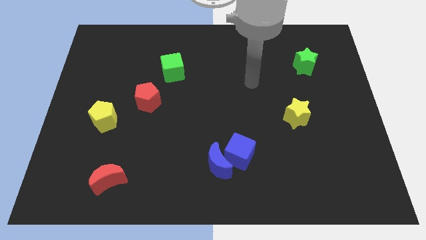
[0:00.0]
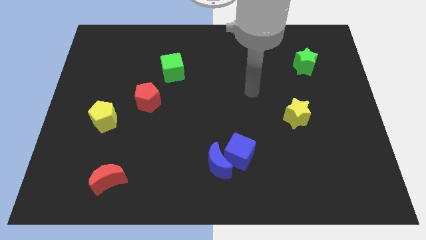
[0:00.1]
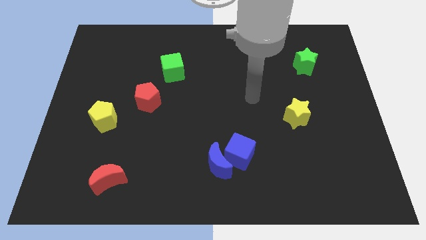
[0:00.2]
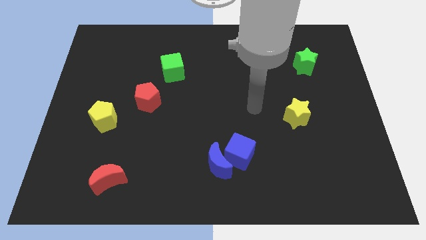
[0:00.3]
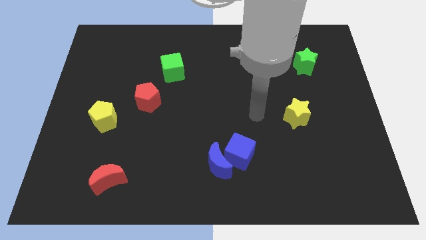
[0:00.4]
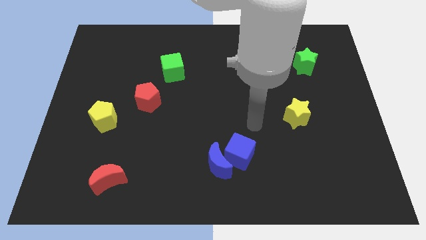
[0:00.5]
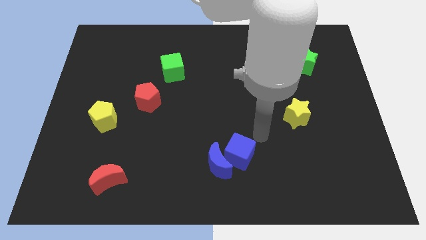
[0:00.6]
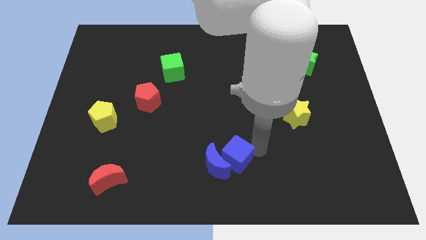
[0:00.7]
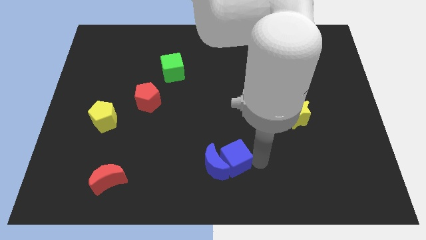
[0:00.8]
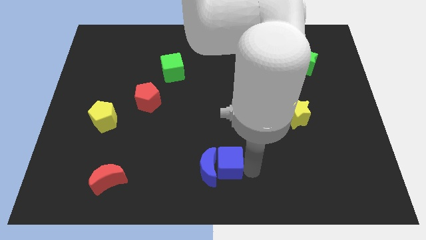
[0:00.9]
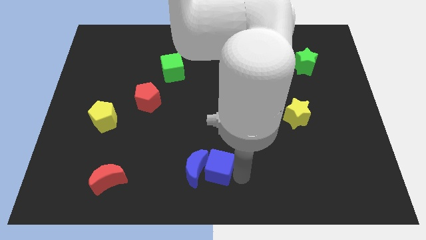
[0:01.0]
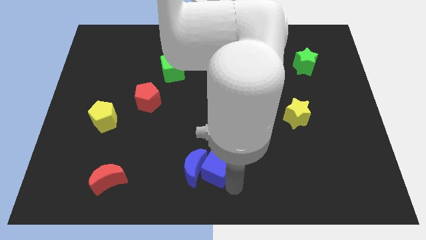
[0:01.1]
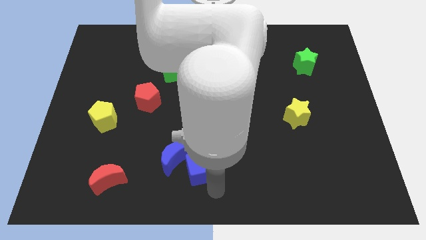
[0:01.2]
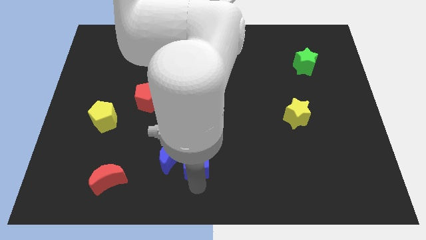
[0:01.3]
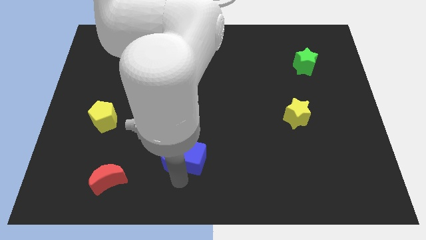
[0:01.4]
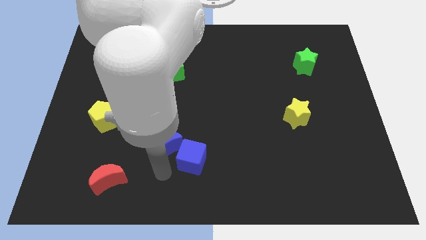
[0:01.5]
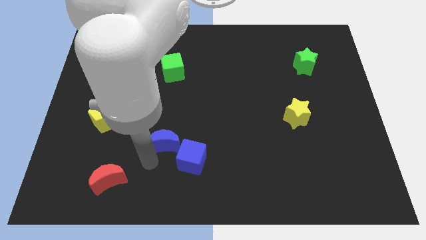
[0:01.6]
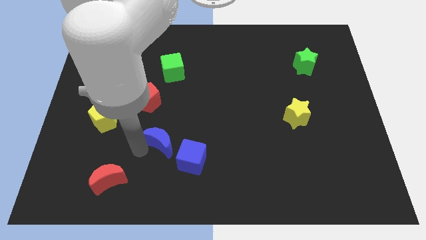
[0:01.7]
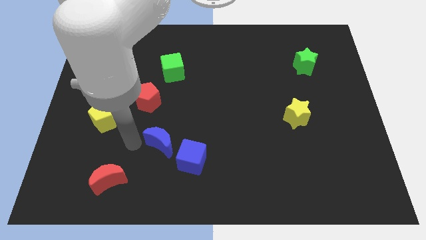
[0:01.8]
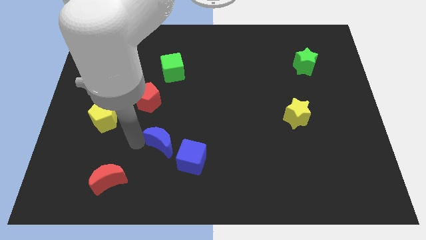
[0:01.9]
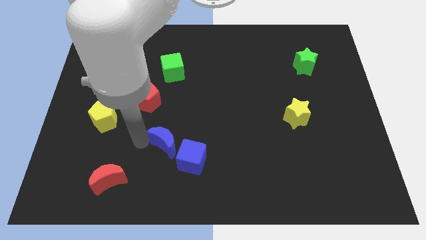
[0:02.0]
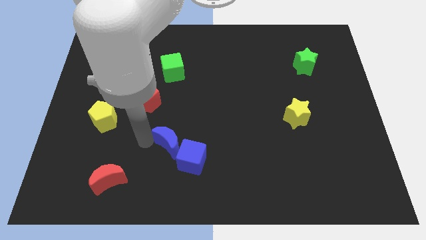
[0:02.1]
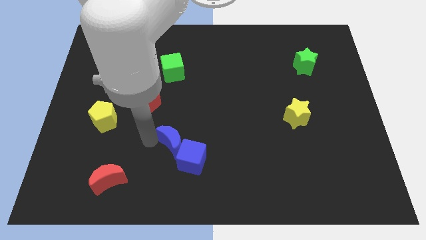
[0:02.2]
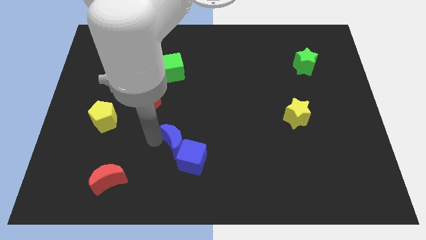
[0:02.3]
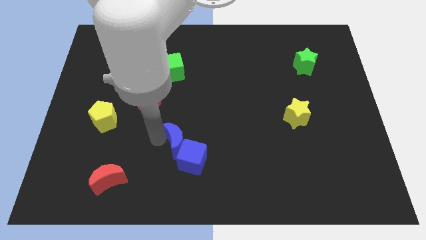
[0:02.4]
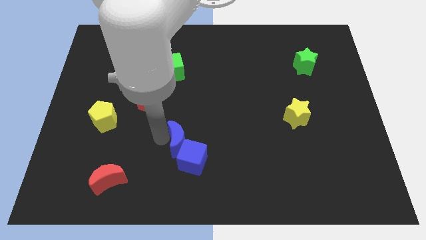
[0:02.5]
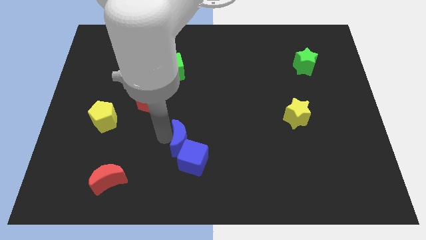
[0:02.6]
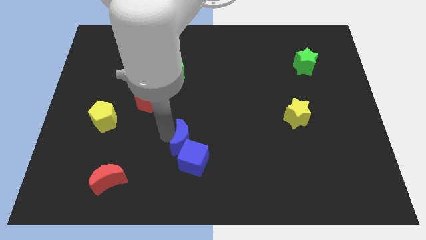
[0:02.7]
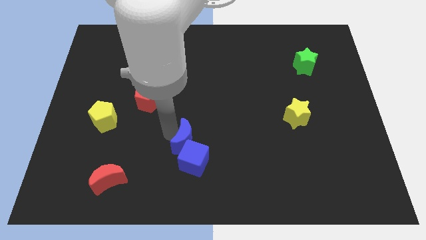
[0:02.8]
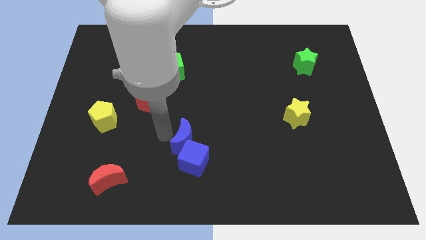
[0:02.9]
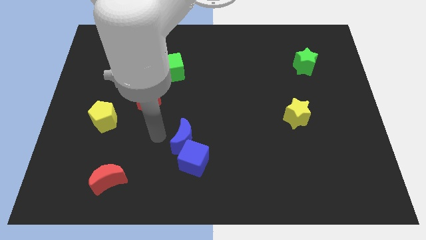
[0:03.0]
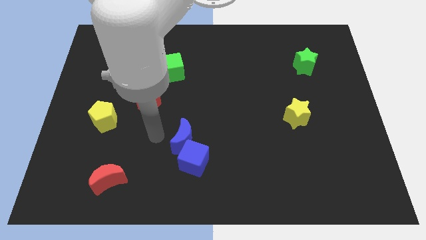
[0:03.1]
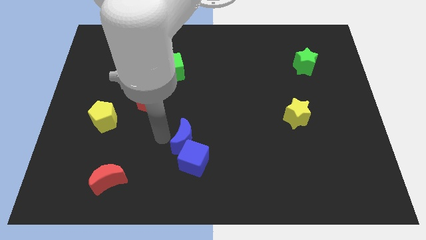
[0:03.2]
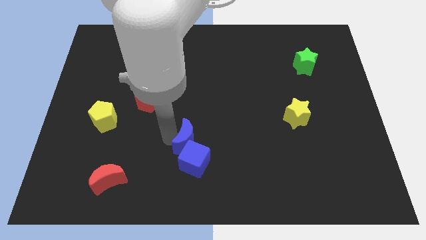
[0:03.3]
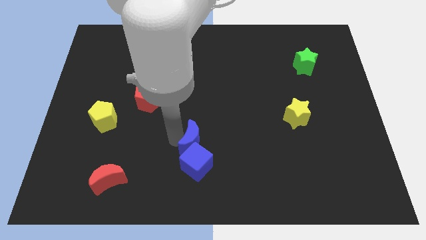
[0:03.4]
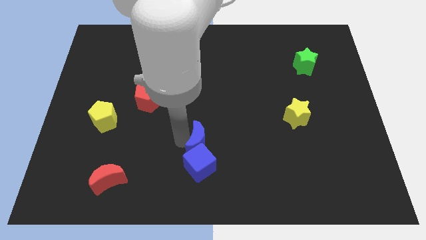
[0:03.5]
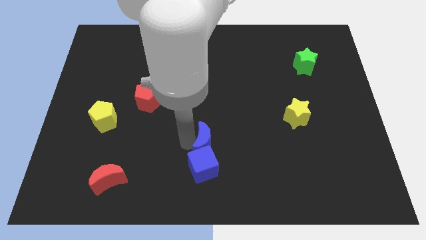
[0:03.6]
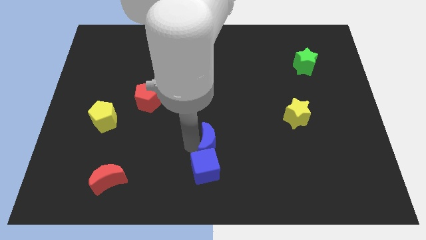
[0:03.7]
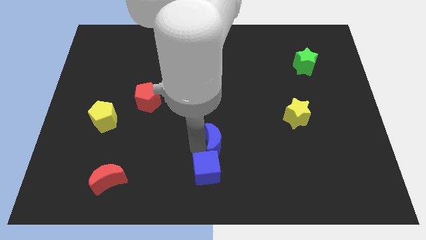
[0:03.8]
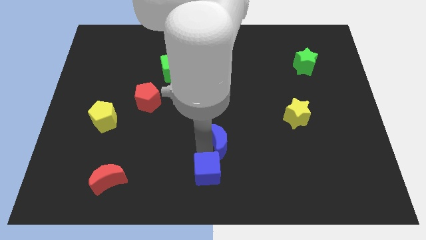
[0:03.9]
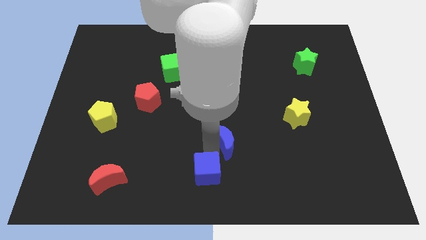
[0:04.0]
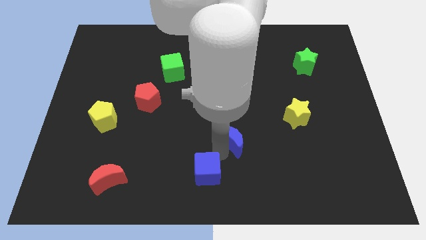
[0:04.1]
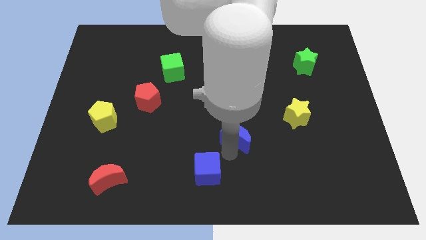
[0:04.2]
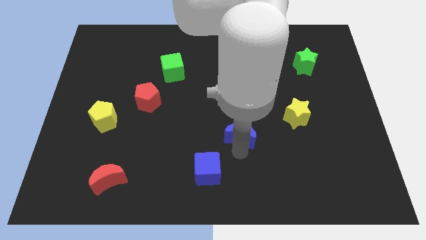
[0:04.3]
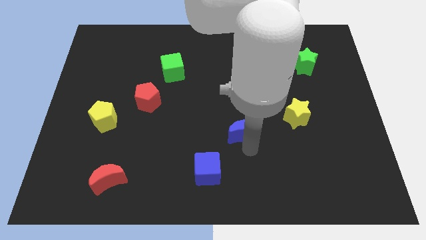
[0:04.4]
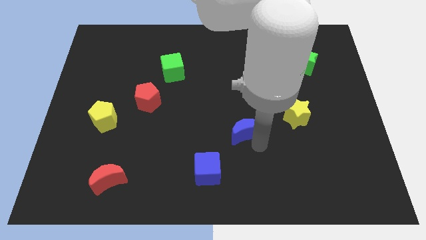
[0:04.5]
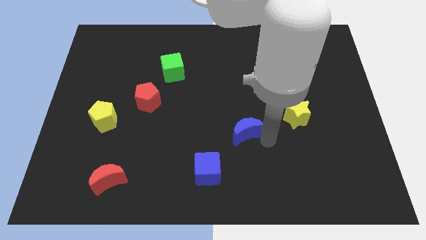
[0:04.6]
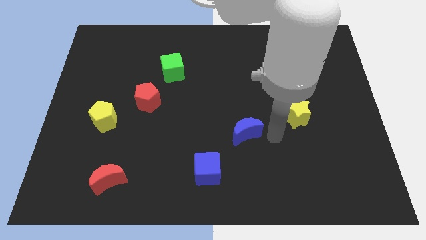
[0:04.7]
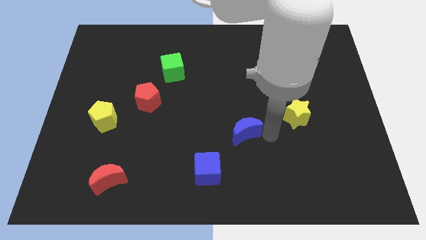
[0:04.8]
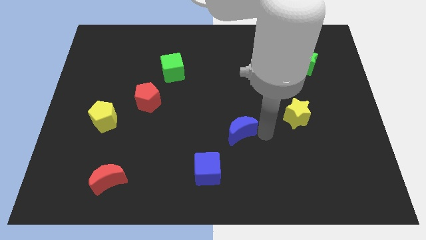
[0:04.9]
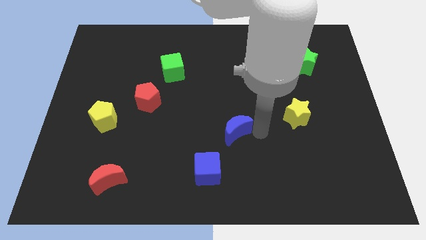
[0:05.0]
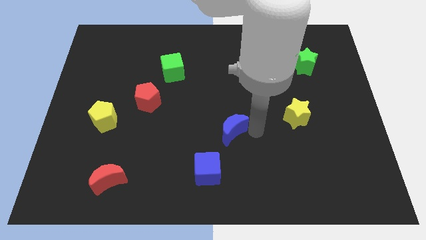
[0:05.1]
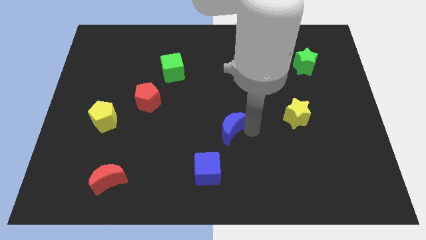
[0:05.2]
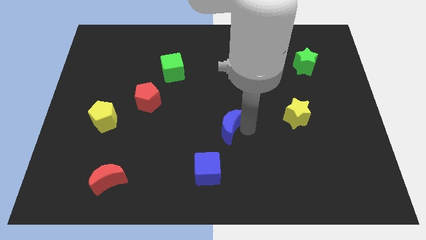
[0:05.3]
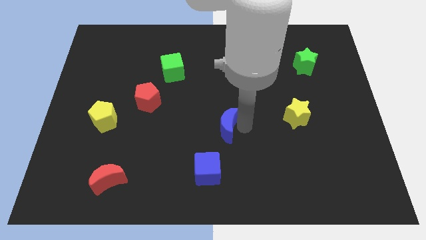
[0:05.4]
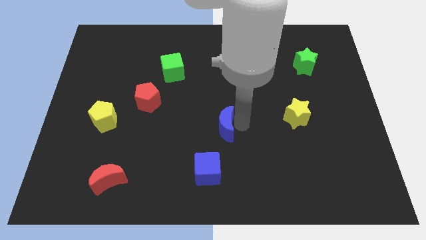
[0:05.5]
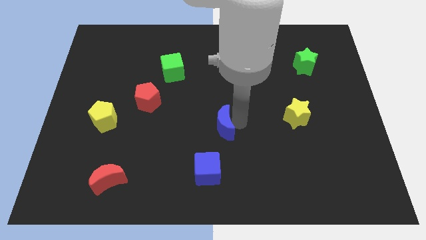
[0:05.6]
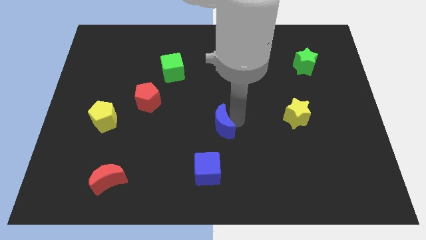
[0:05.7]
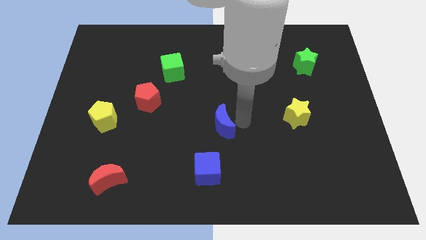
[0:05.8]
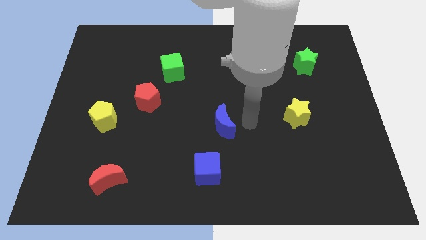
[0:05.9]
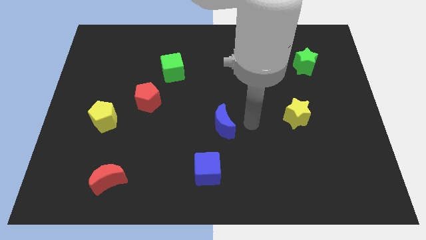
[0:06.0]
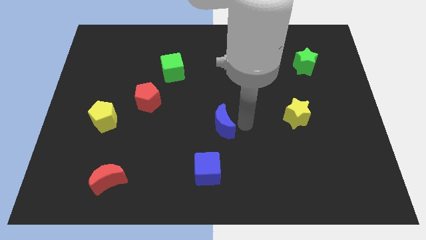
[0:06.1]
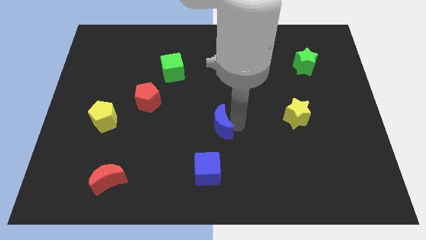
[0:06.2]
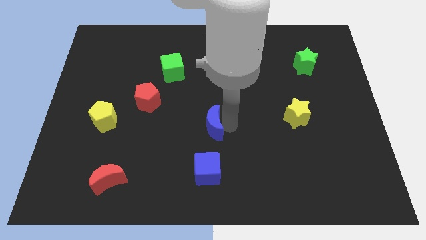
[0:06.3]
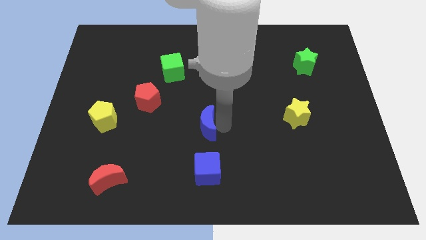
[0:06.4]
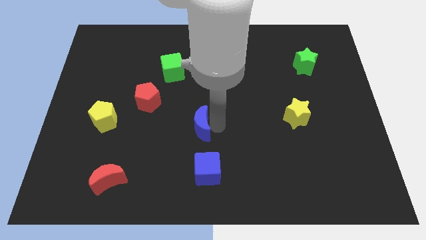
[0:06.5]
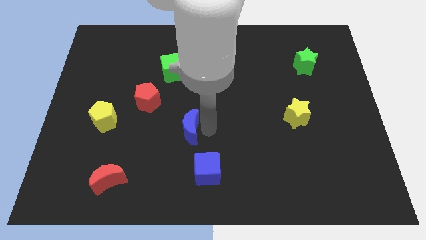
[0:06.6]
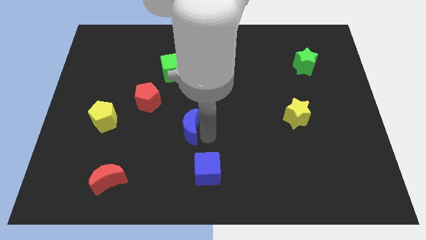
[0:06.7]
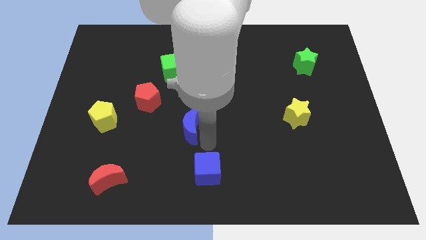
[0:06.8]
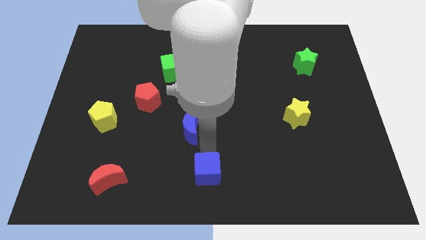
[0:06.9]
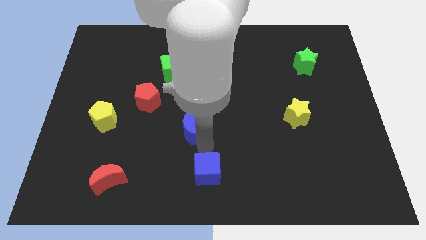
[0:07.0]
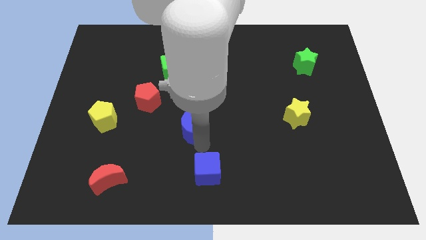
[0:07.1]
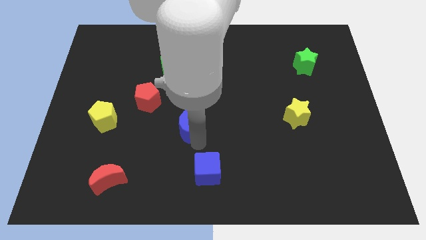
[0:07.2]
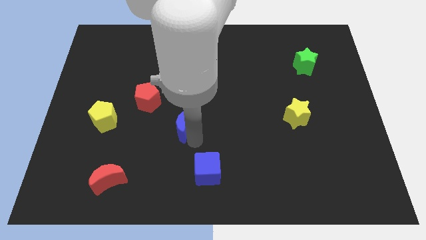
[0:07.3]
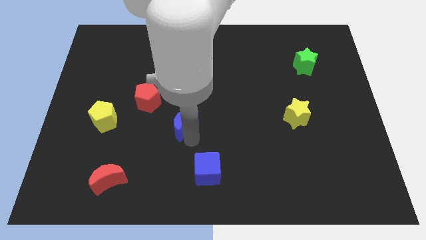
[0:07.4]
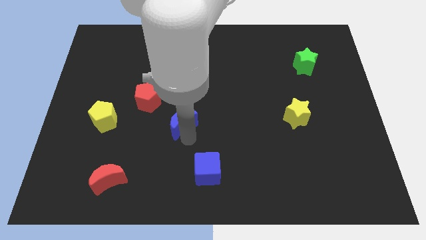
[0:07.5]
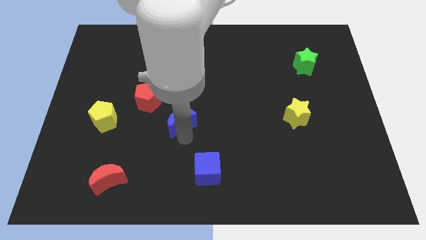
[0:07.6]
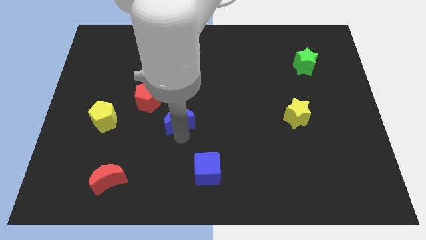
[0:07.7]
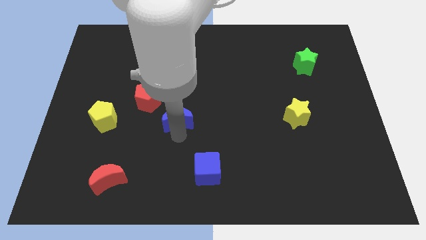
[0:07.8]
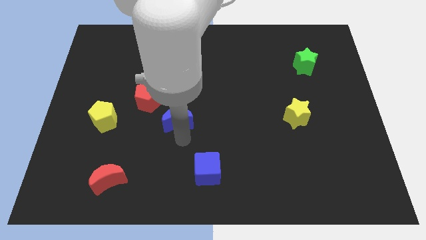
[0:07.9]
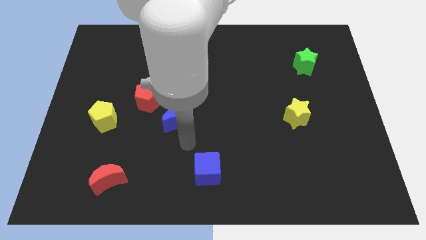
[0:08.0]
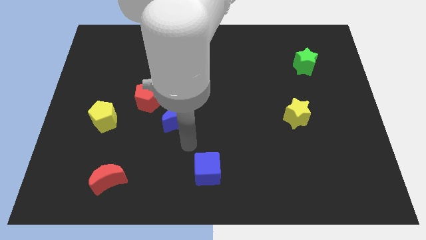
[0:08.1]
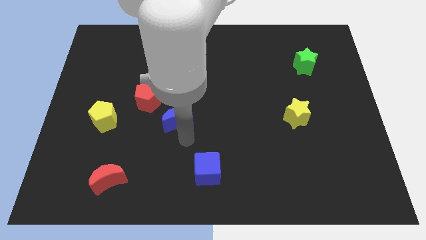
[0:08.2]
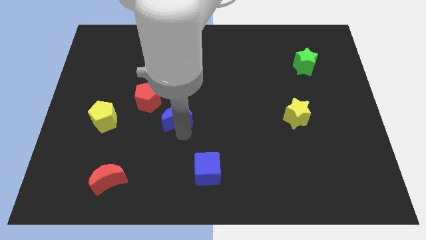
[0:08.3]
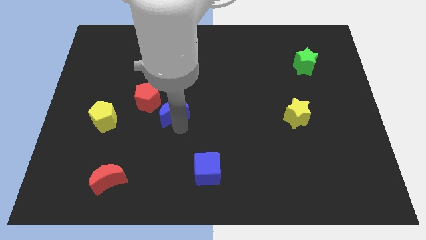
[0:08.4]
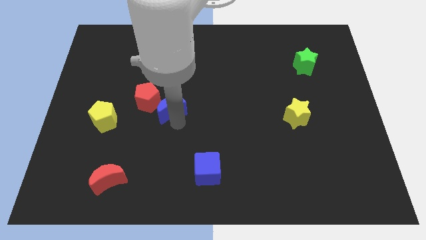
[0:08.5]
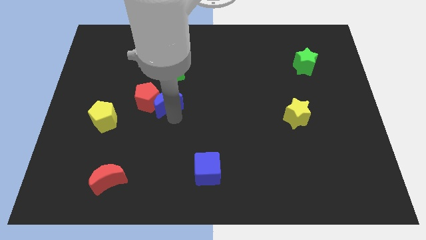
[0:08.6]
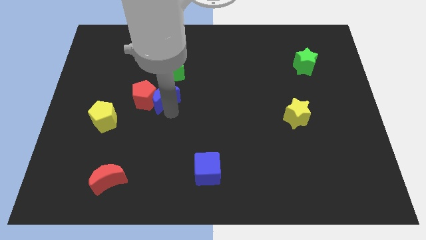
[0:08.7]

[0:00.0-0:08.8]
push the blue moon up and then to the left
